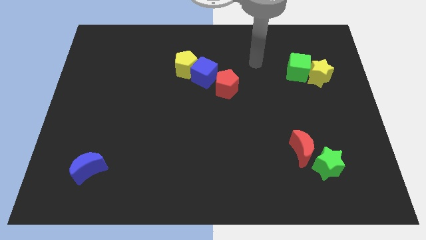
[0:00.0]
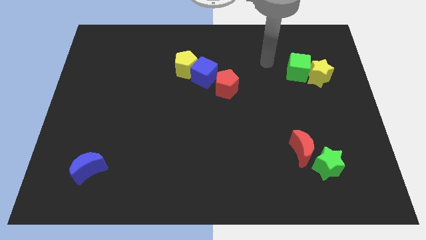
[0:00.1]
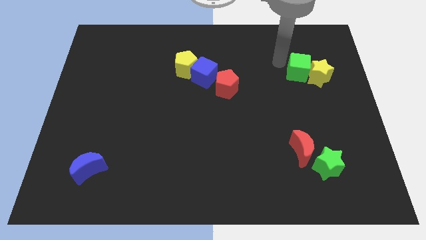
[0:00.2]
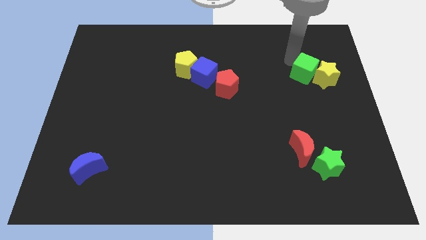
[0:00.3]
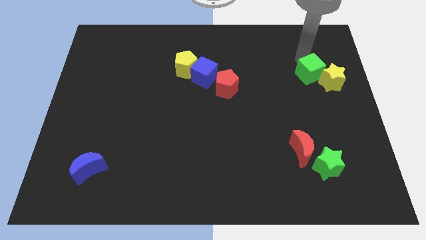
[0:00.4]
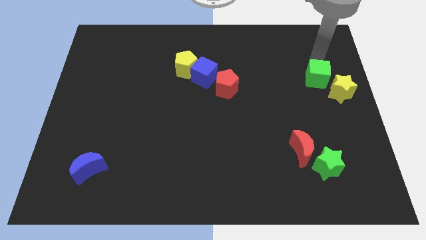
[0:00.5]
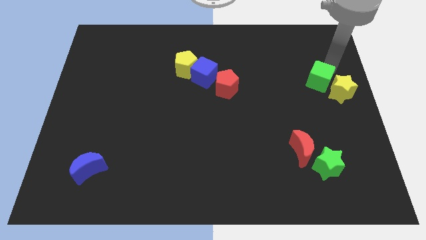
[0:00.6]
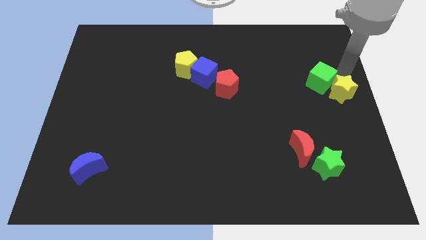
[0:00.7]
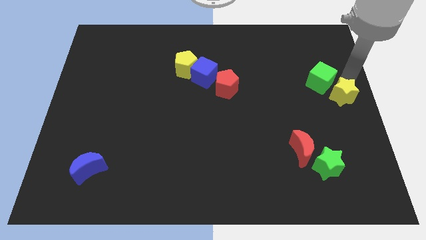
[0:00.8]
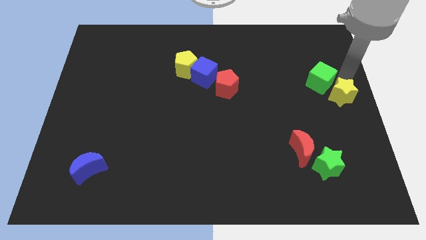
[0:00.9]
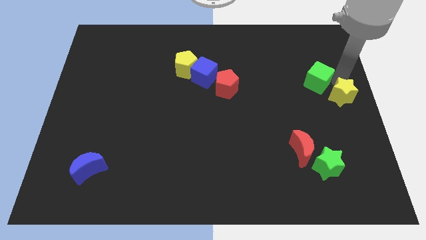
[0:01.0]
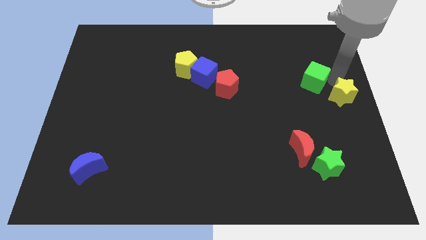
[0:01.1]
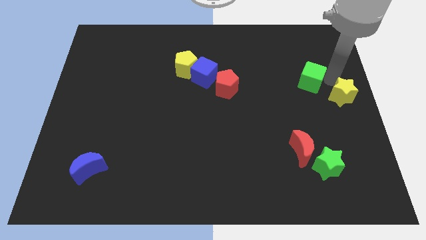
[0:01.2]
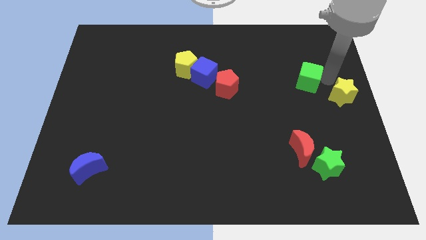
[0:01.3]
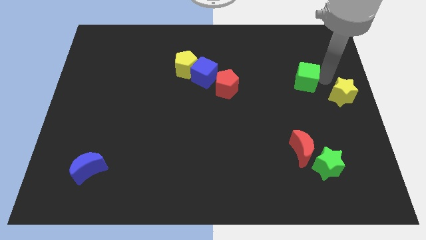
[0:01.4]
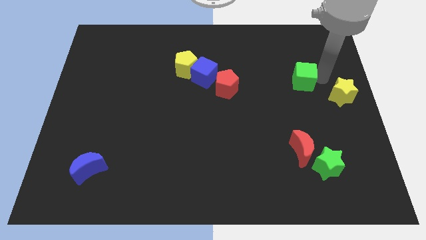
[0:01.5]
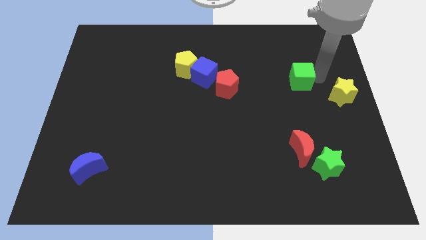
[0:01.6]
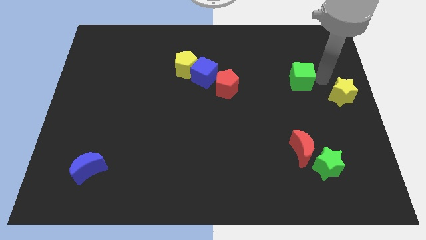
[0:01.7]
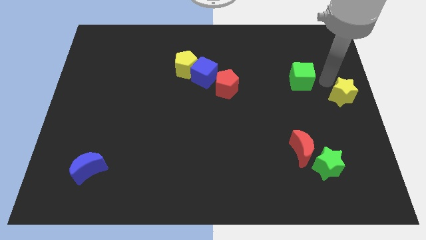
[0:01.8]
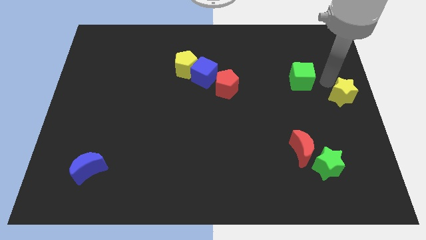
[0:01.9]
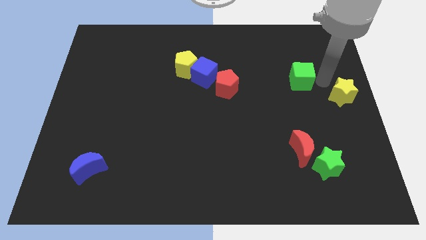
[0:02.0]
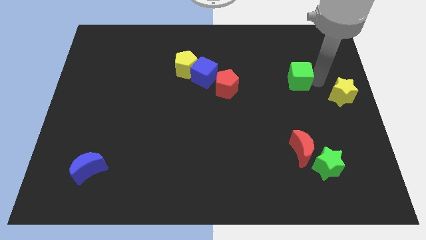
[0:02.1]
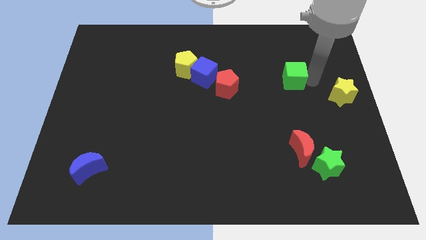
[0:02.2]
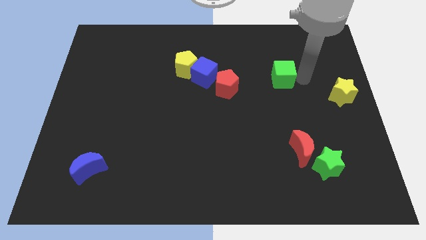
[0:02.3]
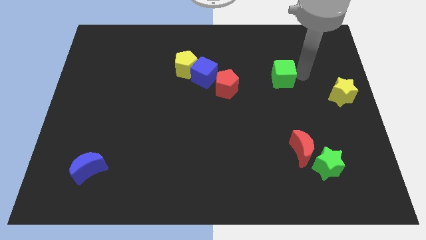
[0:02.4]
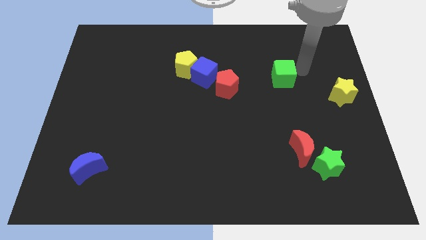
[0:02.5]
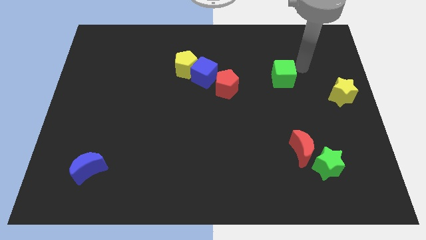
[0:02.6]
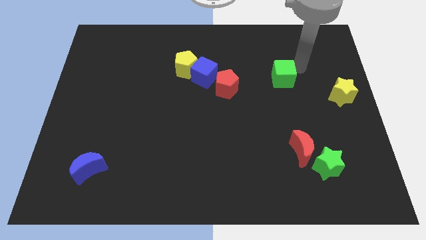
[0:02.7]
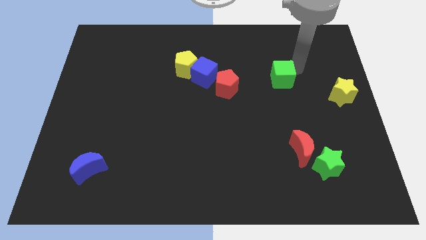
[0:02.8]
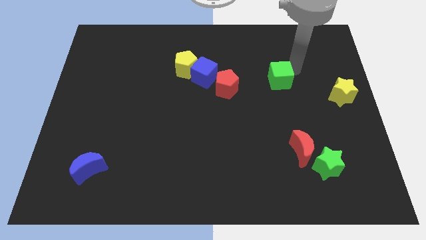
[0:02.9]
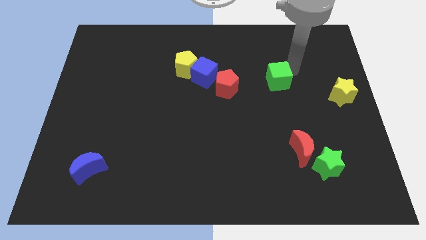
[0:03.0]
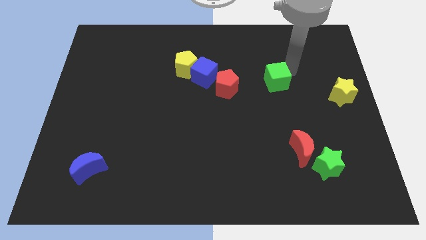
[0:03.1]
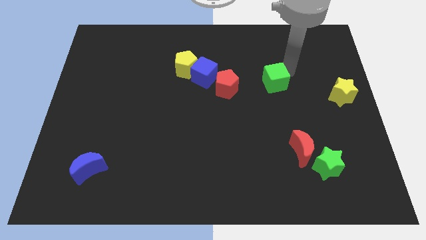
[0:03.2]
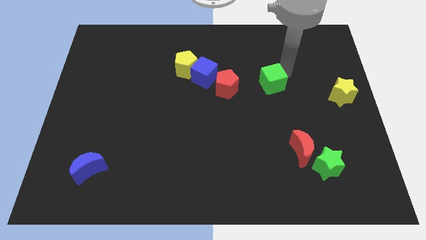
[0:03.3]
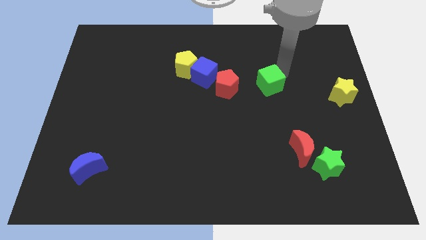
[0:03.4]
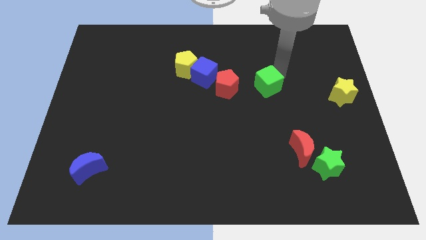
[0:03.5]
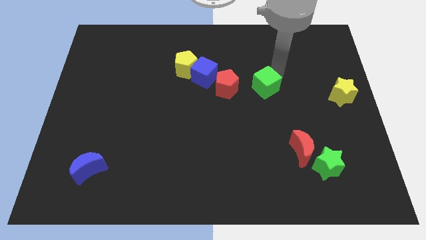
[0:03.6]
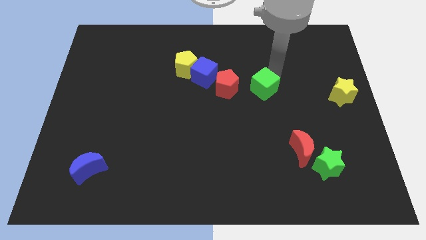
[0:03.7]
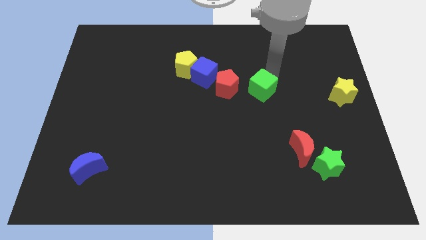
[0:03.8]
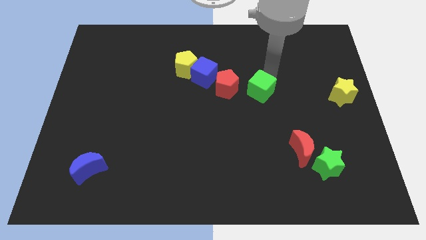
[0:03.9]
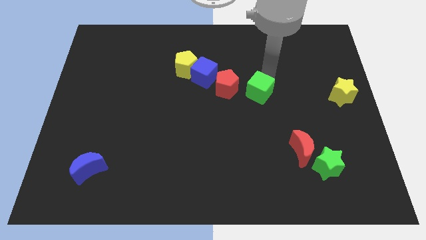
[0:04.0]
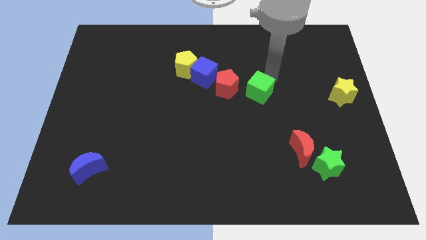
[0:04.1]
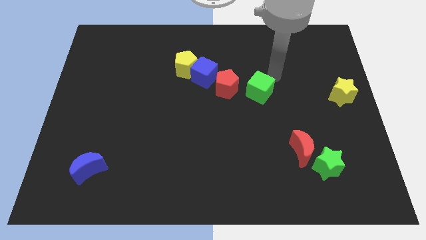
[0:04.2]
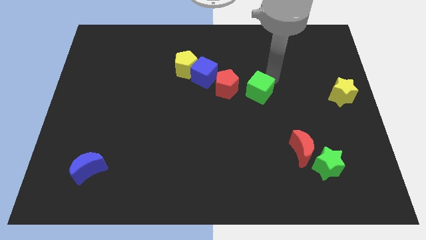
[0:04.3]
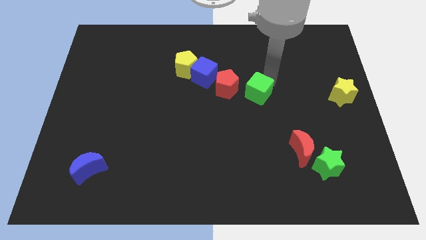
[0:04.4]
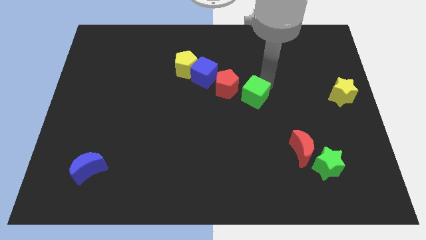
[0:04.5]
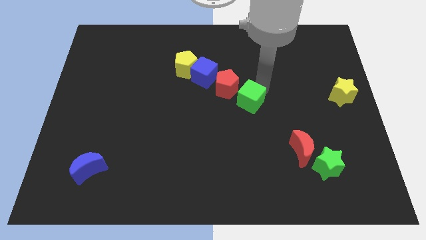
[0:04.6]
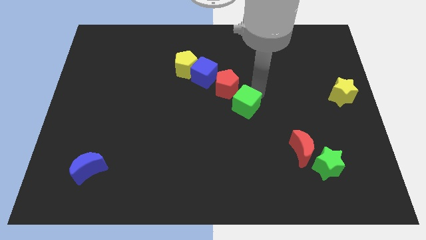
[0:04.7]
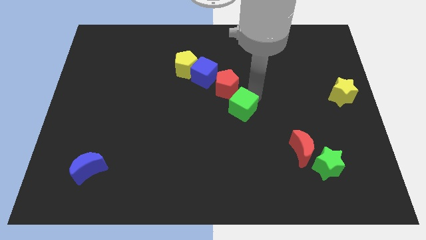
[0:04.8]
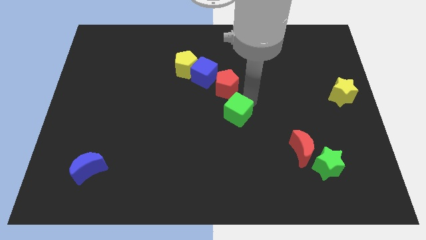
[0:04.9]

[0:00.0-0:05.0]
push the green cube down and to the left

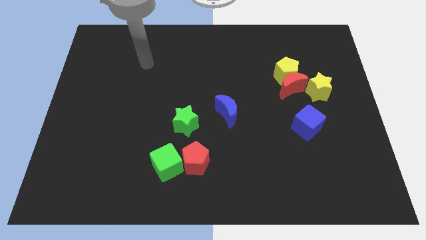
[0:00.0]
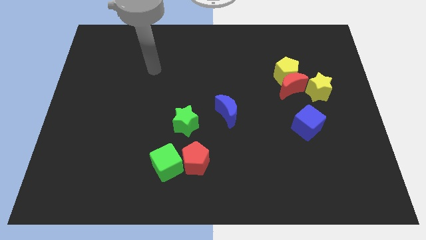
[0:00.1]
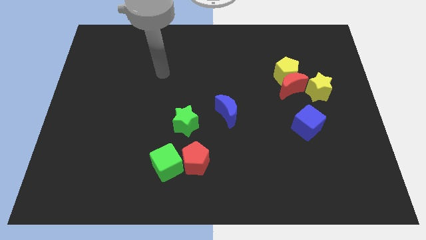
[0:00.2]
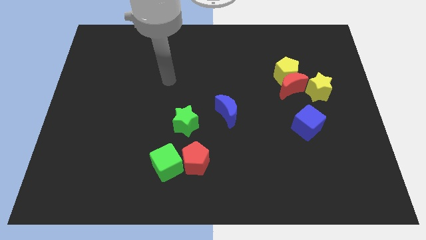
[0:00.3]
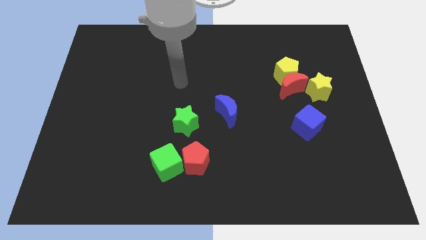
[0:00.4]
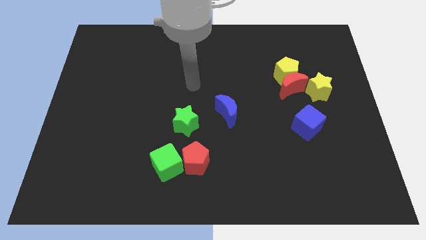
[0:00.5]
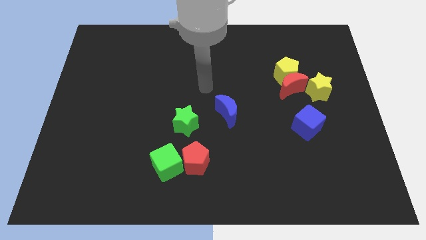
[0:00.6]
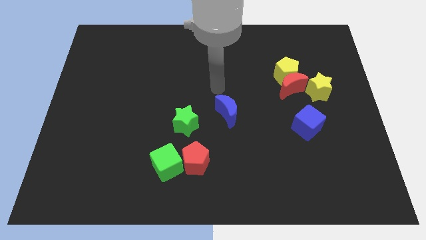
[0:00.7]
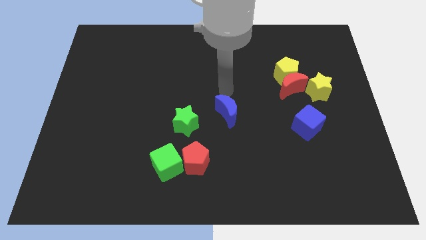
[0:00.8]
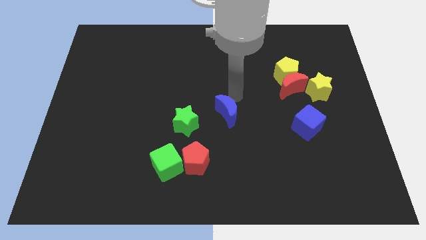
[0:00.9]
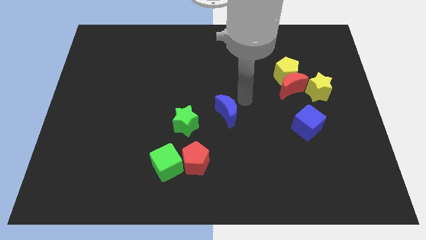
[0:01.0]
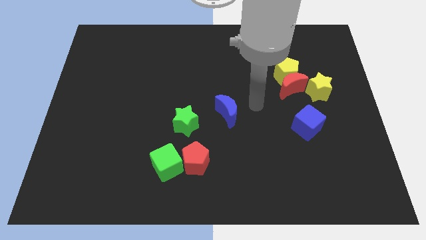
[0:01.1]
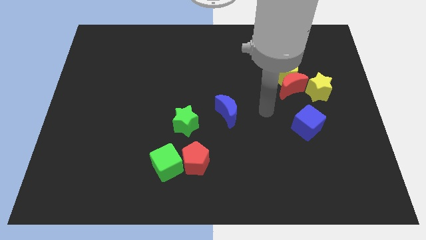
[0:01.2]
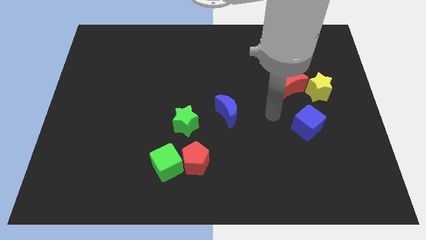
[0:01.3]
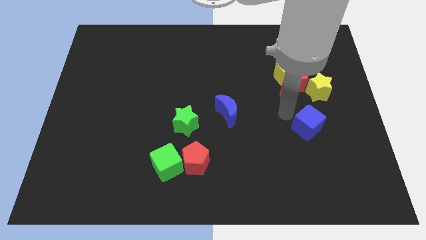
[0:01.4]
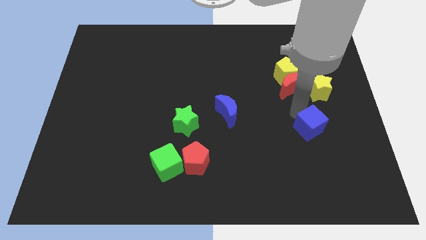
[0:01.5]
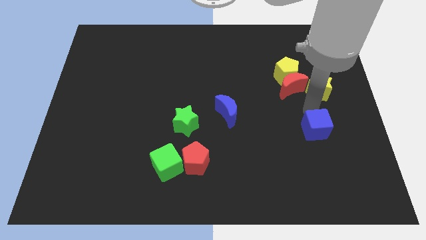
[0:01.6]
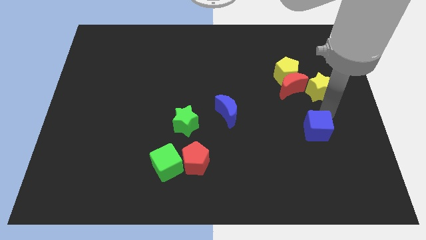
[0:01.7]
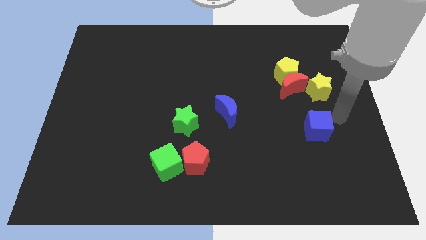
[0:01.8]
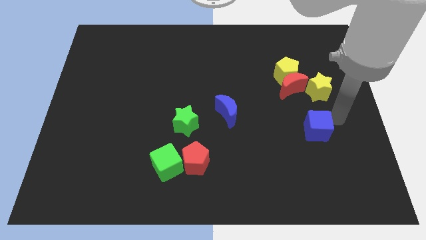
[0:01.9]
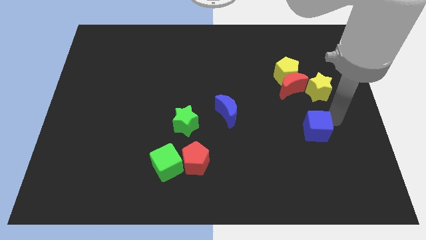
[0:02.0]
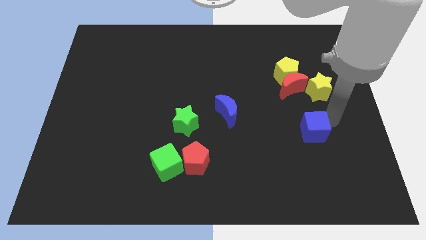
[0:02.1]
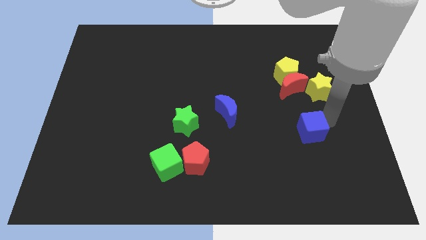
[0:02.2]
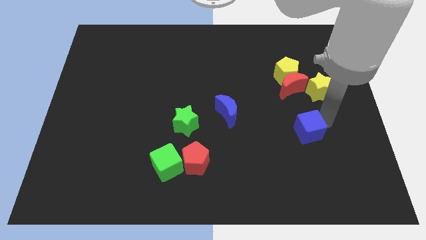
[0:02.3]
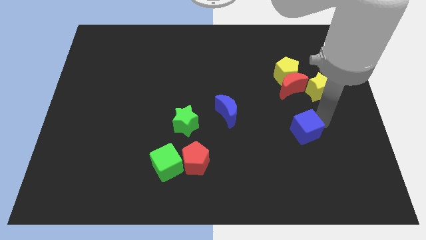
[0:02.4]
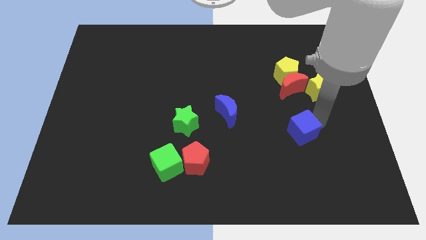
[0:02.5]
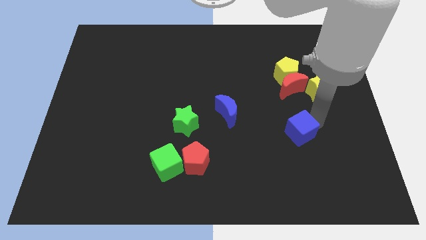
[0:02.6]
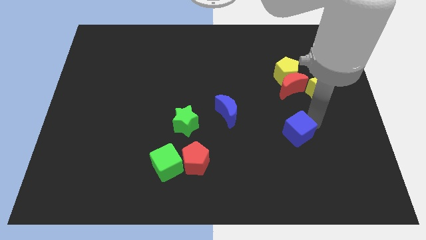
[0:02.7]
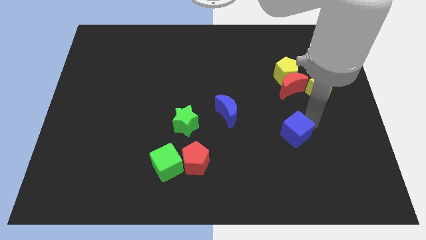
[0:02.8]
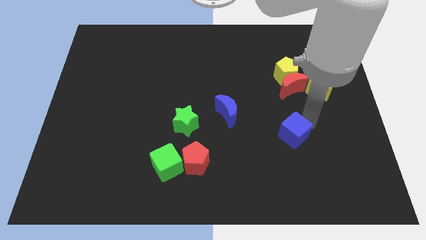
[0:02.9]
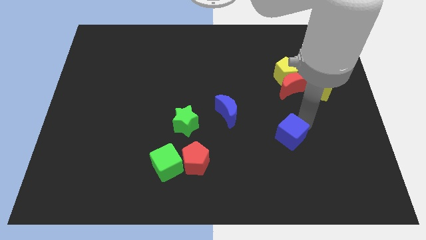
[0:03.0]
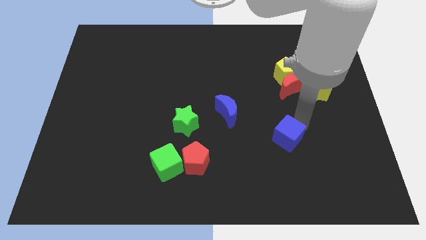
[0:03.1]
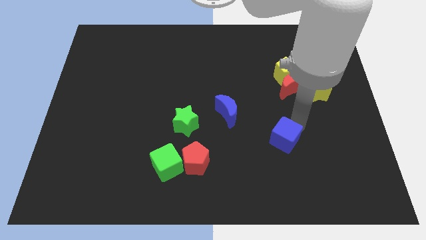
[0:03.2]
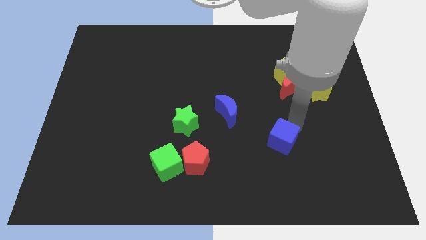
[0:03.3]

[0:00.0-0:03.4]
slide the blue cube somewhat down and left
